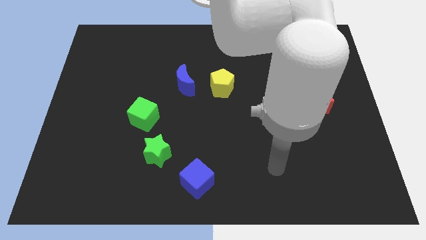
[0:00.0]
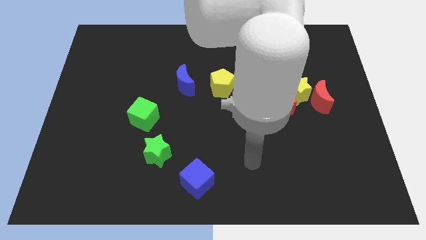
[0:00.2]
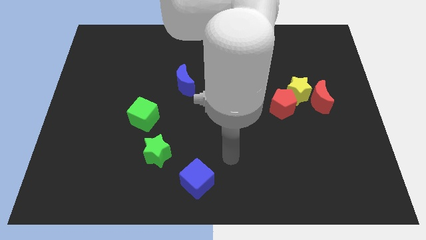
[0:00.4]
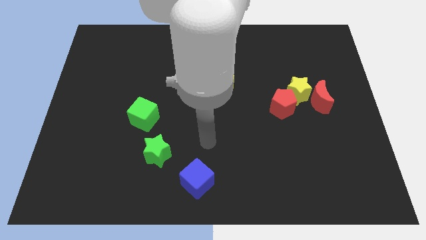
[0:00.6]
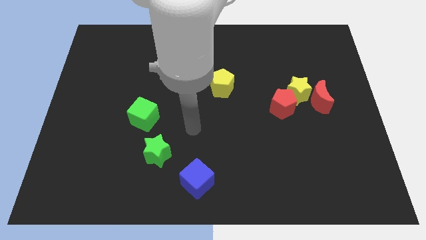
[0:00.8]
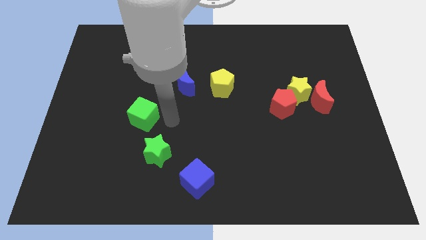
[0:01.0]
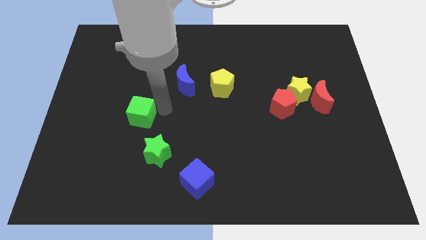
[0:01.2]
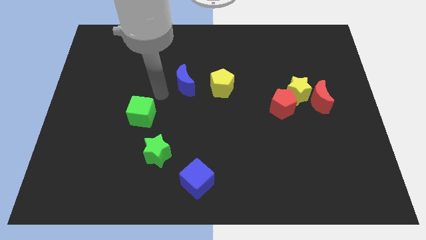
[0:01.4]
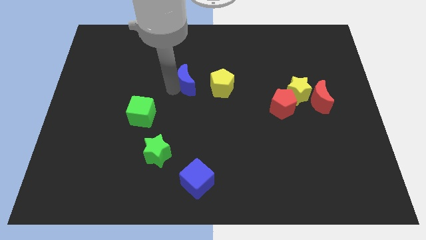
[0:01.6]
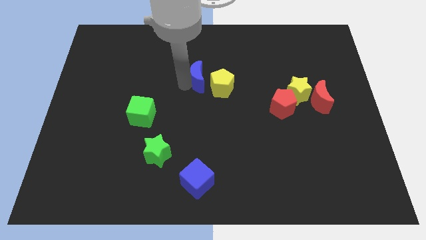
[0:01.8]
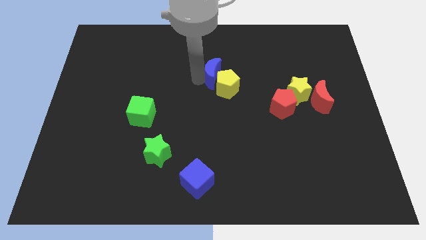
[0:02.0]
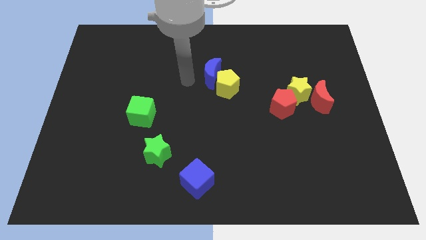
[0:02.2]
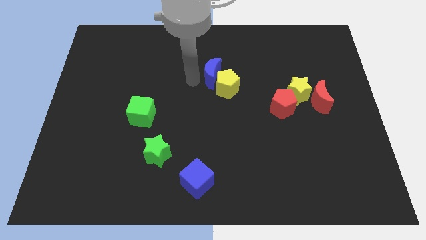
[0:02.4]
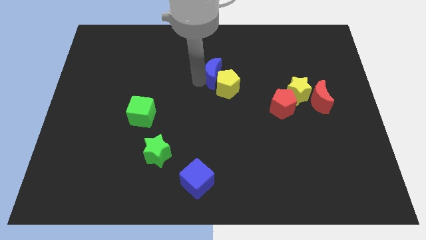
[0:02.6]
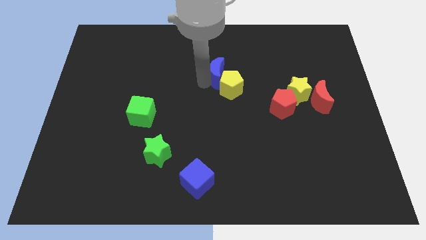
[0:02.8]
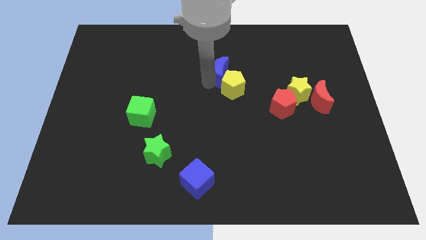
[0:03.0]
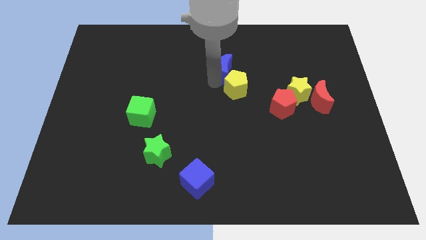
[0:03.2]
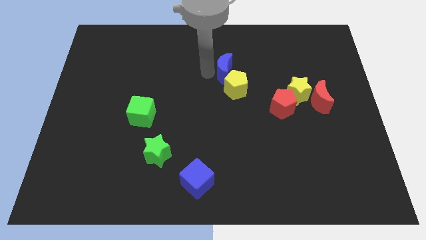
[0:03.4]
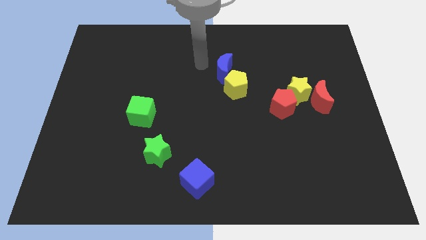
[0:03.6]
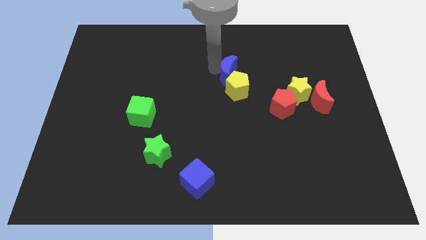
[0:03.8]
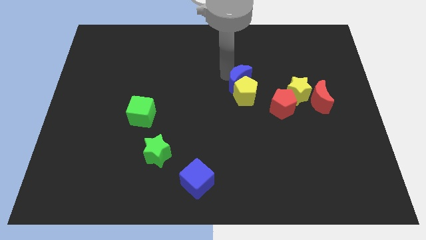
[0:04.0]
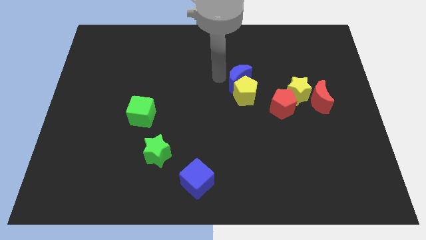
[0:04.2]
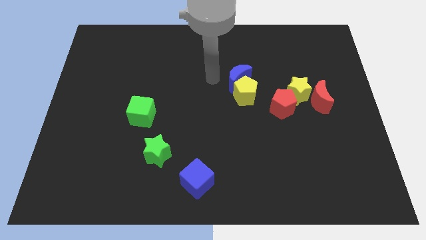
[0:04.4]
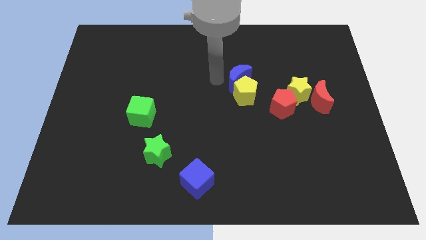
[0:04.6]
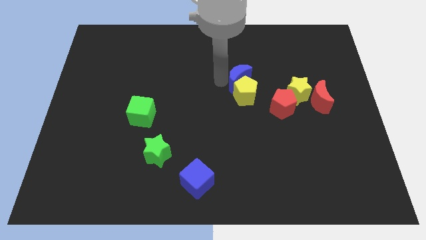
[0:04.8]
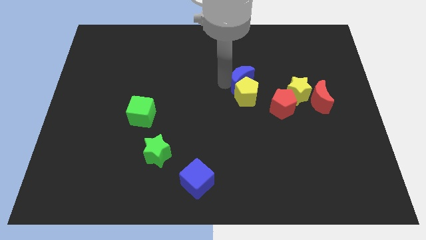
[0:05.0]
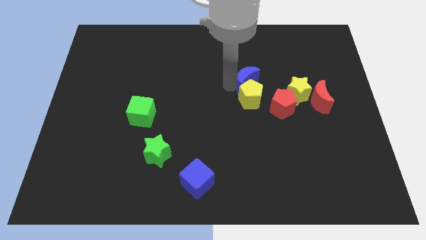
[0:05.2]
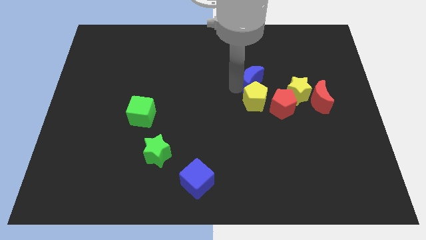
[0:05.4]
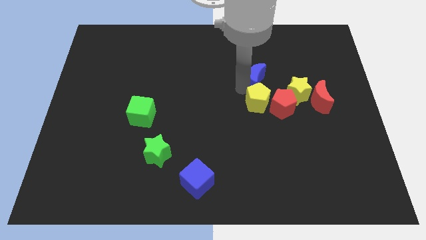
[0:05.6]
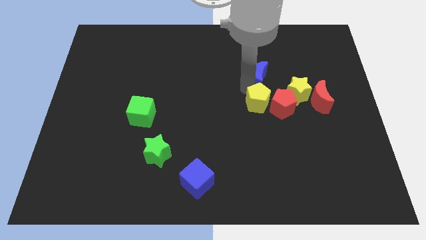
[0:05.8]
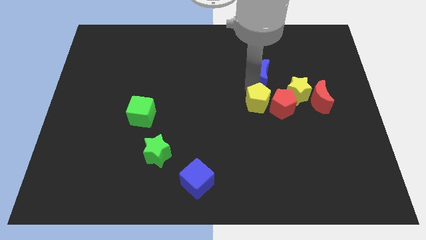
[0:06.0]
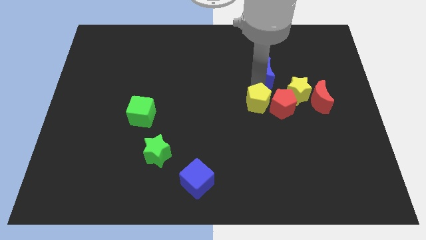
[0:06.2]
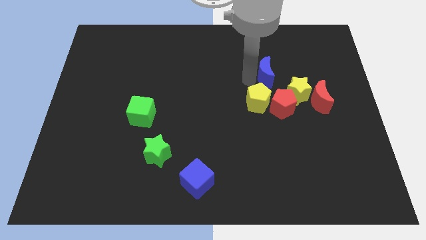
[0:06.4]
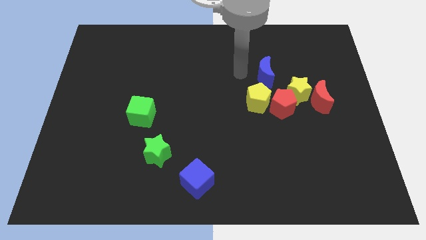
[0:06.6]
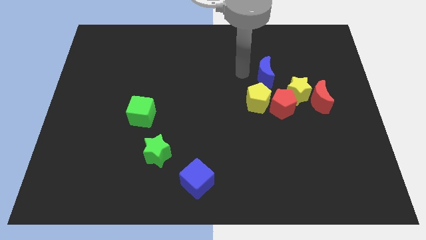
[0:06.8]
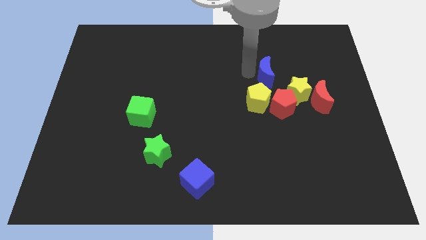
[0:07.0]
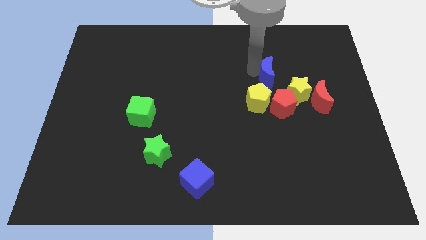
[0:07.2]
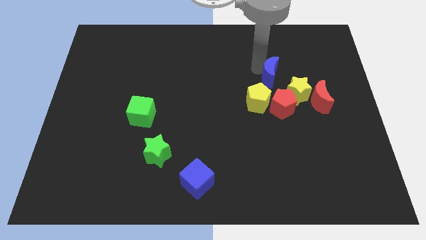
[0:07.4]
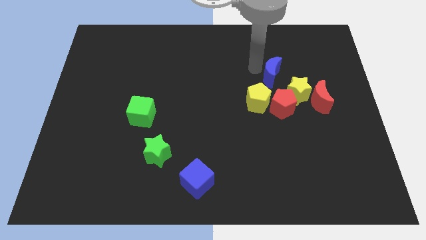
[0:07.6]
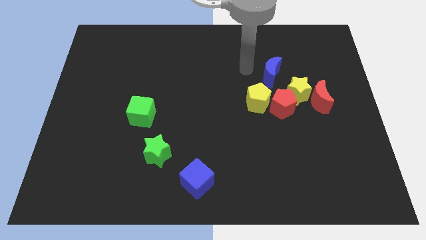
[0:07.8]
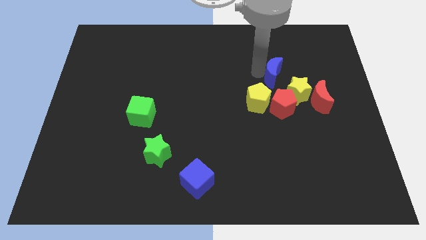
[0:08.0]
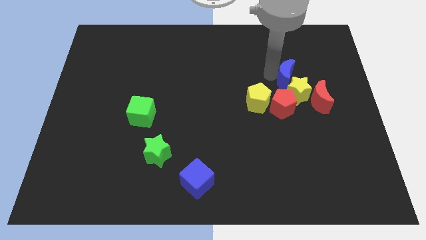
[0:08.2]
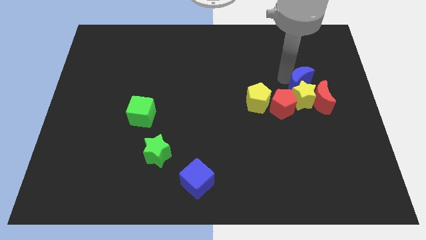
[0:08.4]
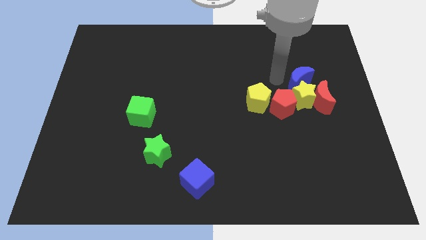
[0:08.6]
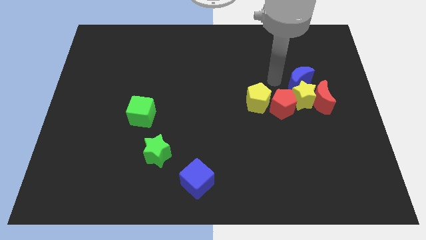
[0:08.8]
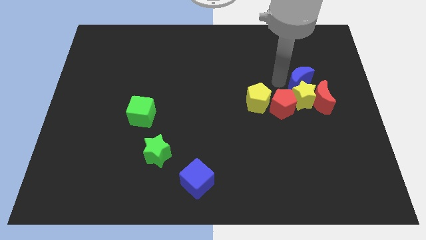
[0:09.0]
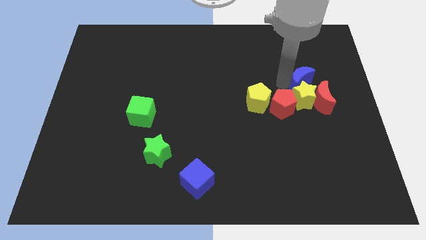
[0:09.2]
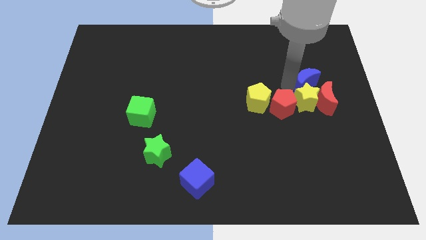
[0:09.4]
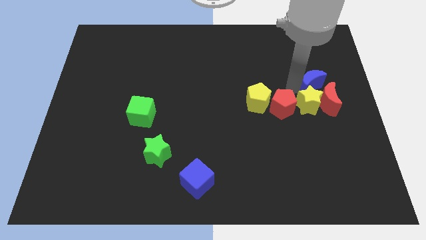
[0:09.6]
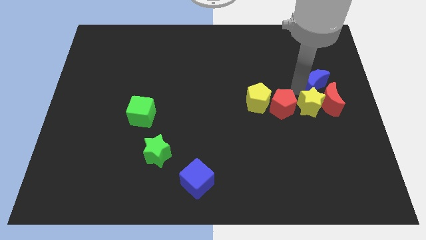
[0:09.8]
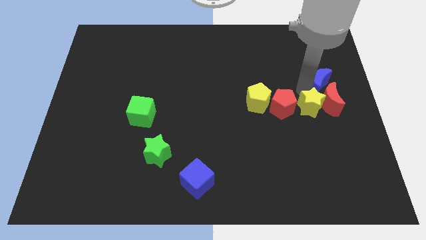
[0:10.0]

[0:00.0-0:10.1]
put the blue moon to the right side of the board

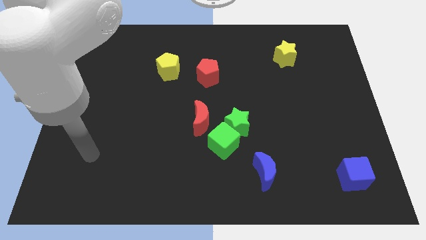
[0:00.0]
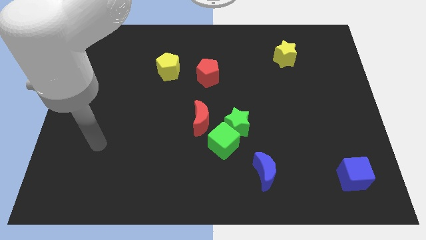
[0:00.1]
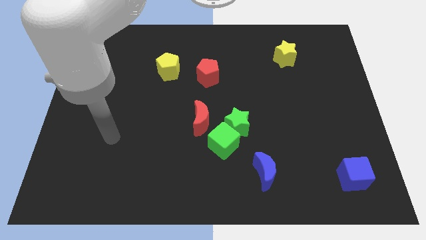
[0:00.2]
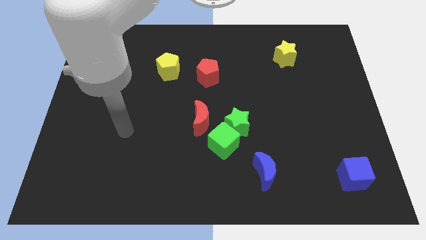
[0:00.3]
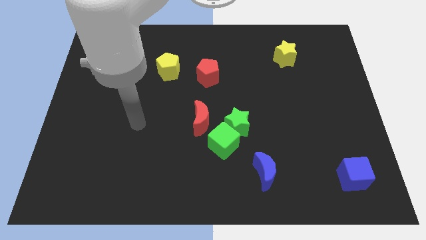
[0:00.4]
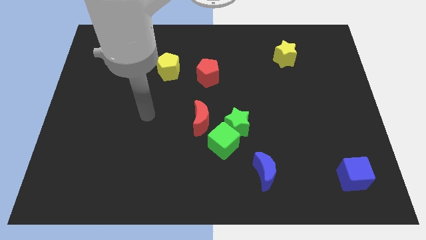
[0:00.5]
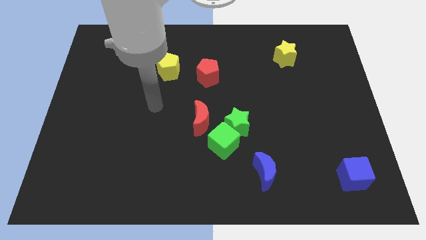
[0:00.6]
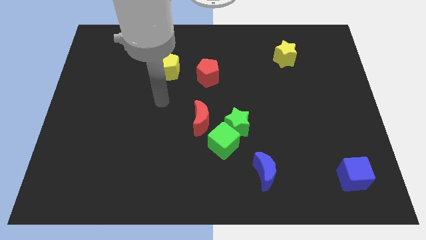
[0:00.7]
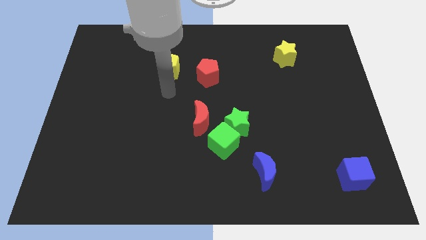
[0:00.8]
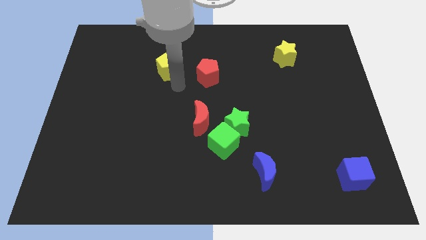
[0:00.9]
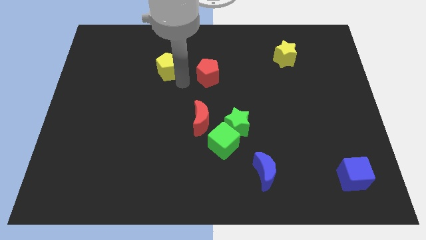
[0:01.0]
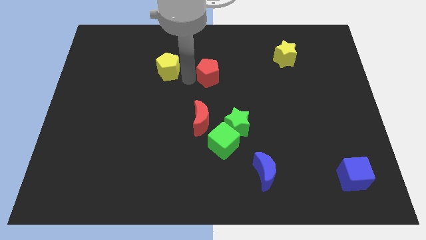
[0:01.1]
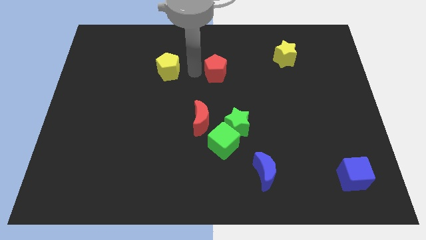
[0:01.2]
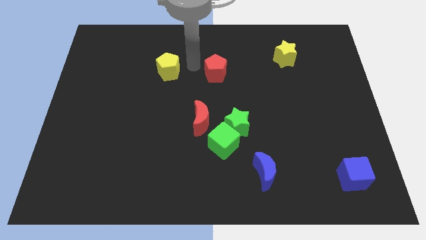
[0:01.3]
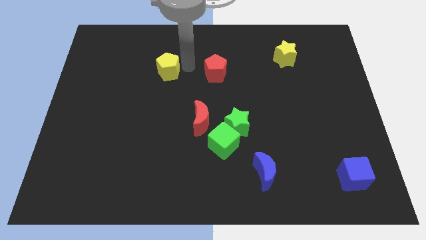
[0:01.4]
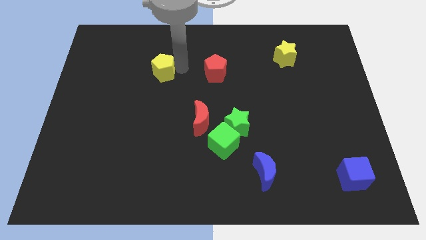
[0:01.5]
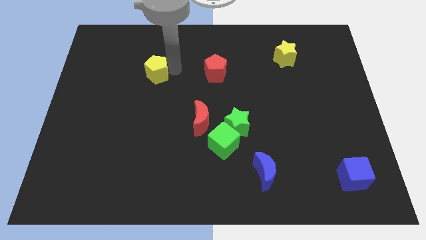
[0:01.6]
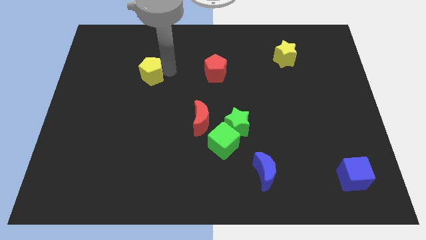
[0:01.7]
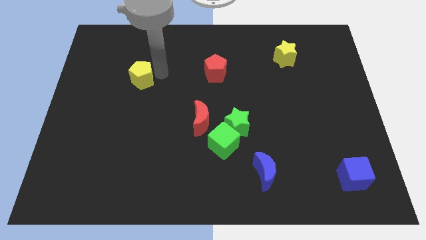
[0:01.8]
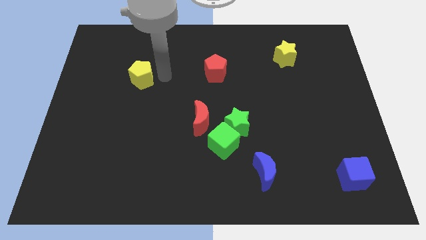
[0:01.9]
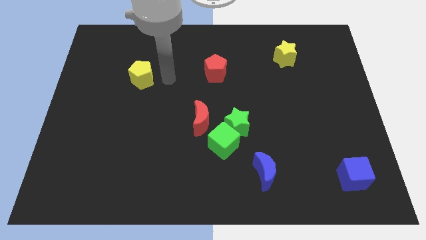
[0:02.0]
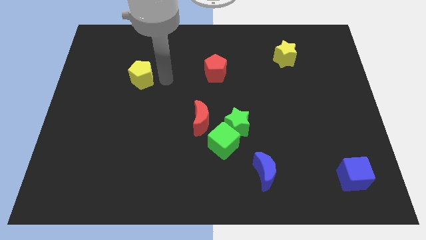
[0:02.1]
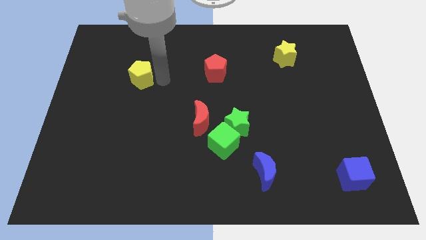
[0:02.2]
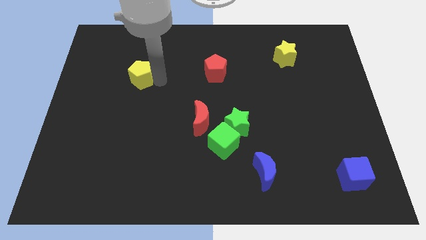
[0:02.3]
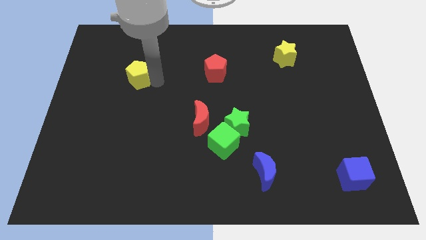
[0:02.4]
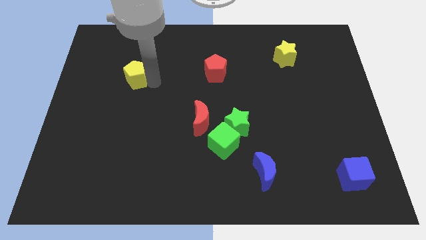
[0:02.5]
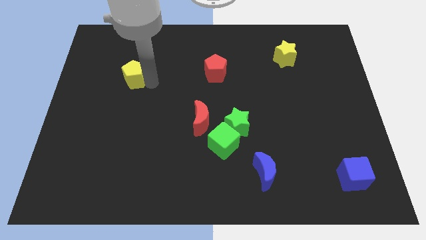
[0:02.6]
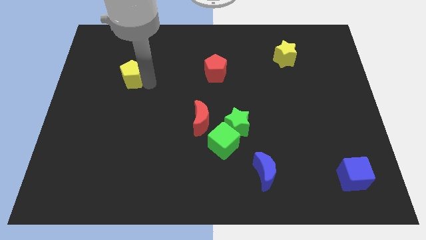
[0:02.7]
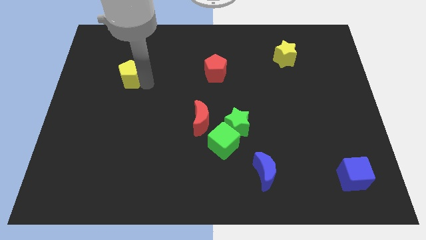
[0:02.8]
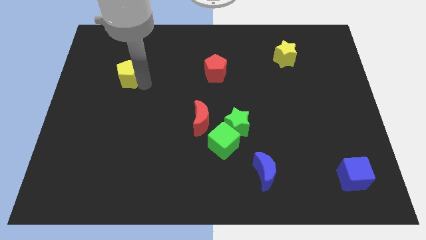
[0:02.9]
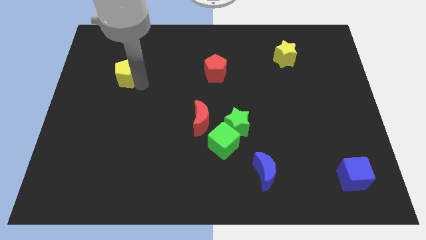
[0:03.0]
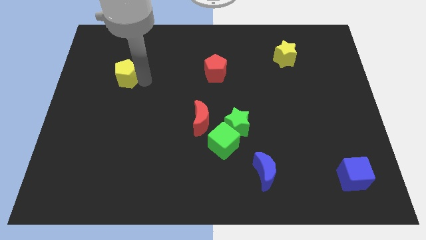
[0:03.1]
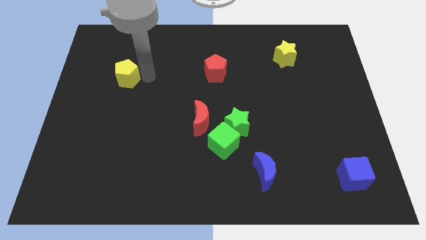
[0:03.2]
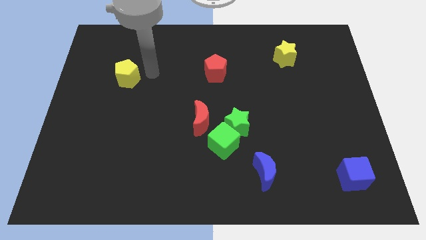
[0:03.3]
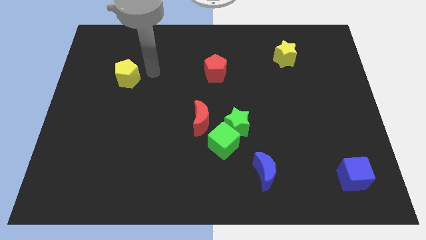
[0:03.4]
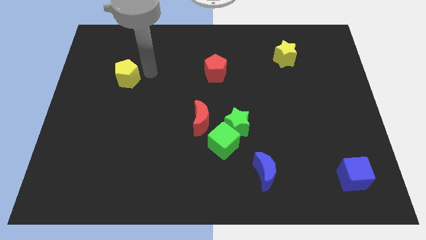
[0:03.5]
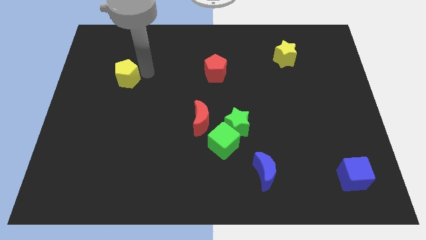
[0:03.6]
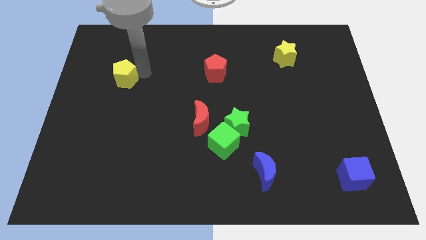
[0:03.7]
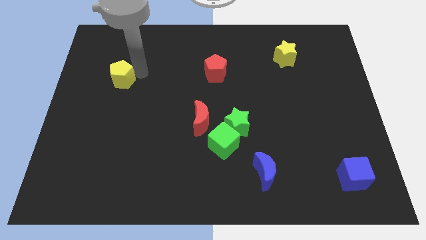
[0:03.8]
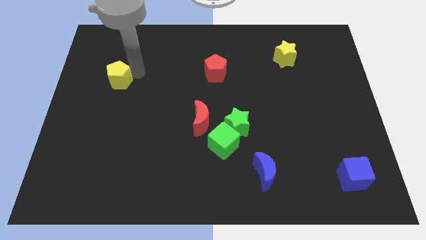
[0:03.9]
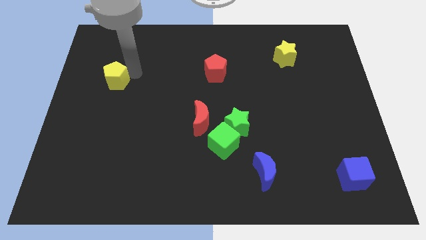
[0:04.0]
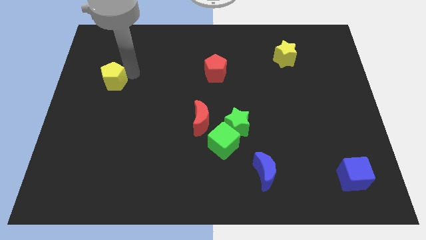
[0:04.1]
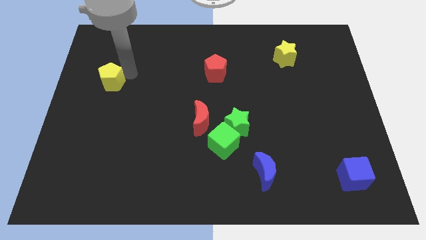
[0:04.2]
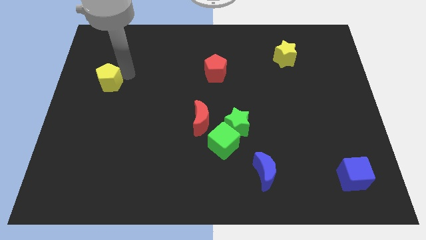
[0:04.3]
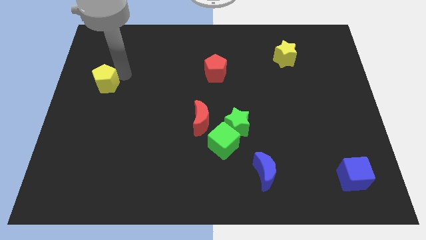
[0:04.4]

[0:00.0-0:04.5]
put the yellow pentagon to the left side of the board
